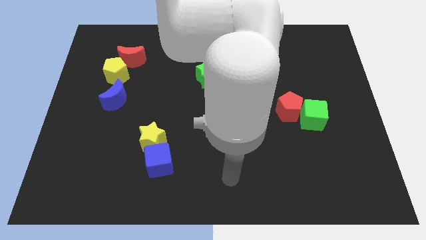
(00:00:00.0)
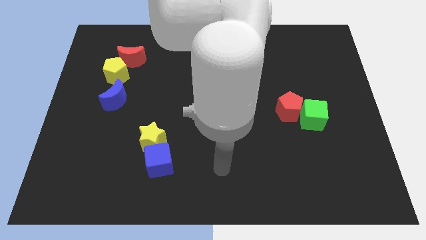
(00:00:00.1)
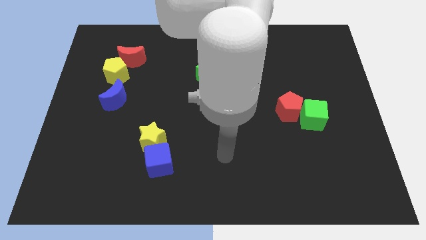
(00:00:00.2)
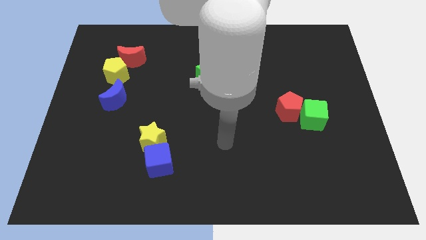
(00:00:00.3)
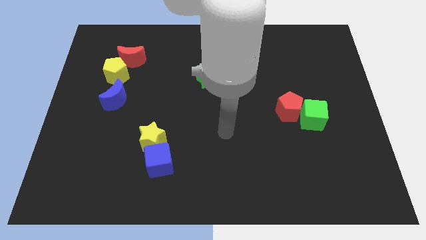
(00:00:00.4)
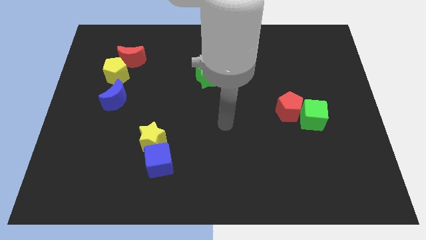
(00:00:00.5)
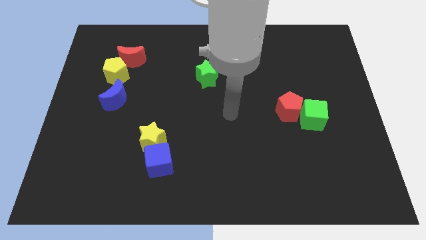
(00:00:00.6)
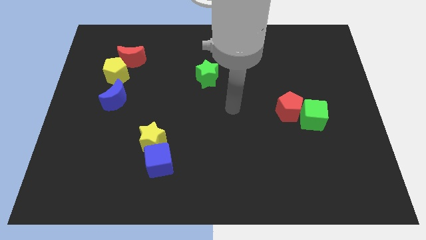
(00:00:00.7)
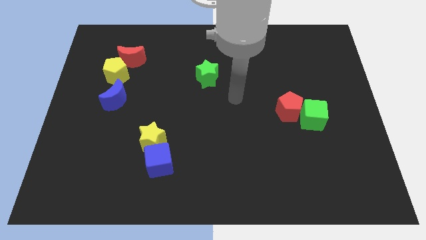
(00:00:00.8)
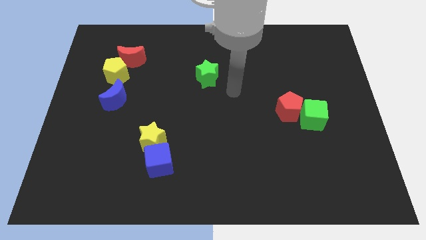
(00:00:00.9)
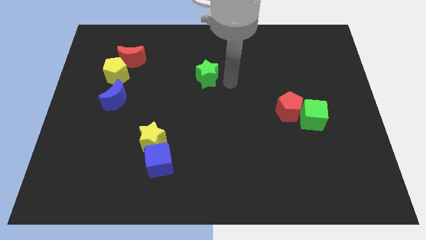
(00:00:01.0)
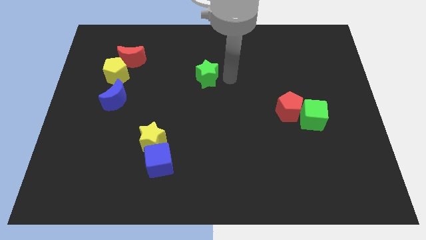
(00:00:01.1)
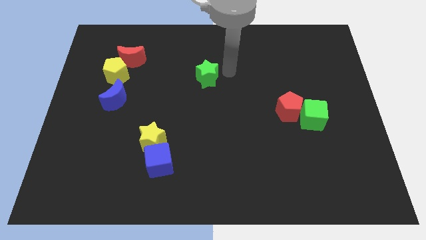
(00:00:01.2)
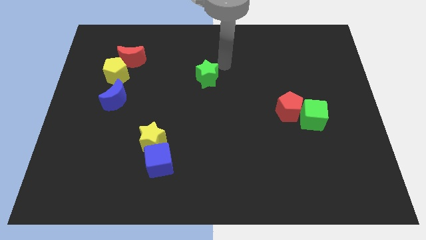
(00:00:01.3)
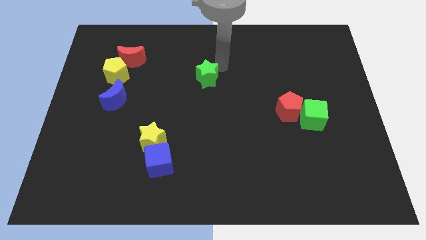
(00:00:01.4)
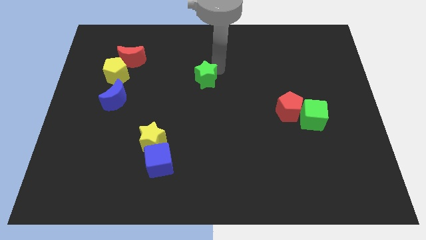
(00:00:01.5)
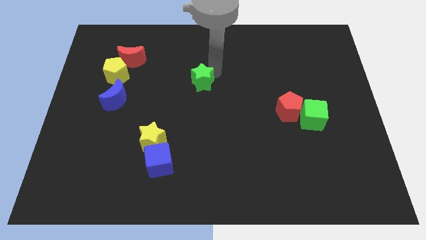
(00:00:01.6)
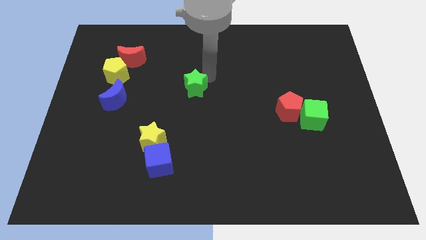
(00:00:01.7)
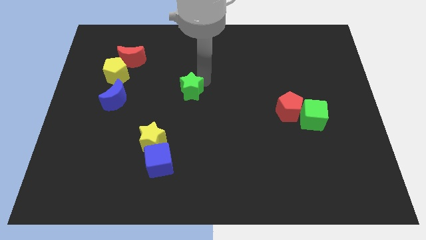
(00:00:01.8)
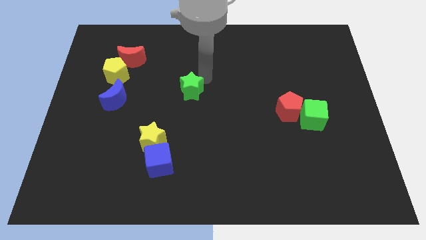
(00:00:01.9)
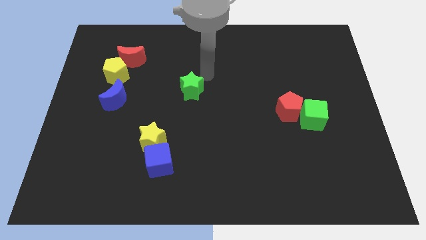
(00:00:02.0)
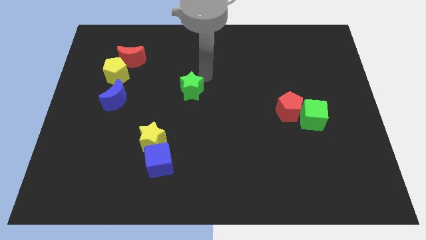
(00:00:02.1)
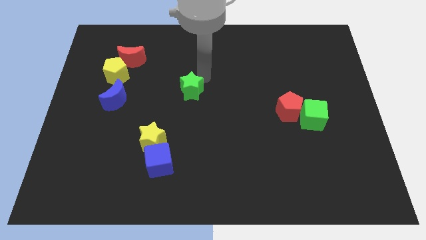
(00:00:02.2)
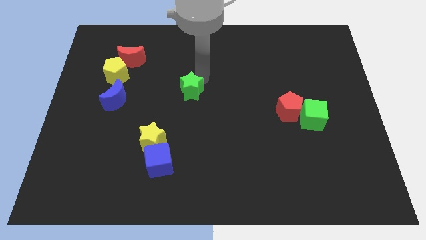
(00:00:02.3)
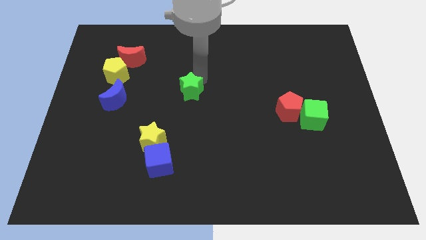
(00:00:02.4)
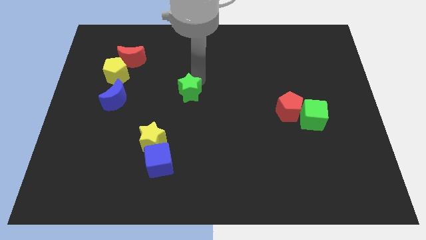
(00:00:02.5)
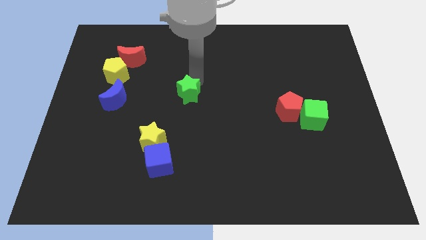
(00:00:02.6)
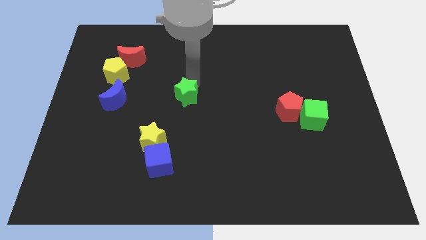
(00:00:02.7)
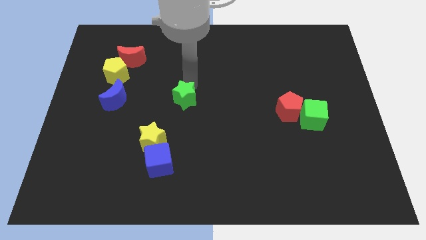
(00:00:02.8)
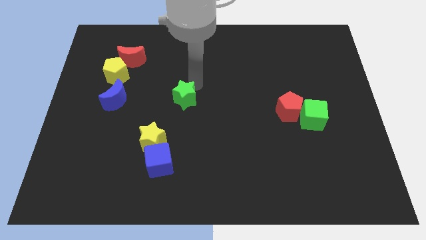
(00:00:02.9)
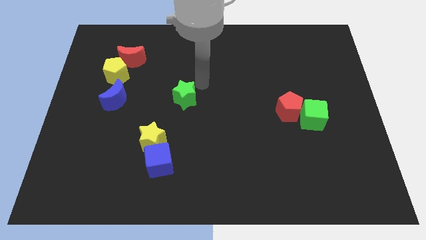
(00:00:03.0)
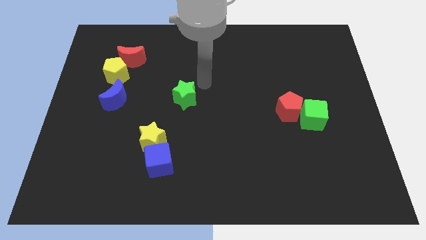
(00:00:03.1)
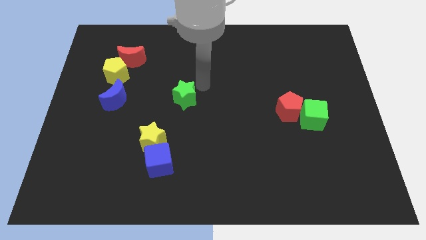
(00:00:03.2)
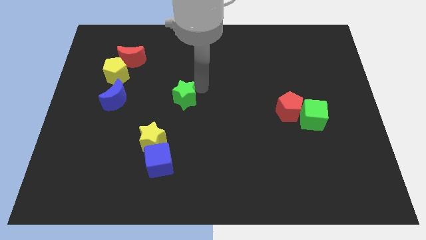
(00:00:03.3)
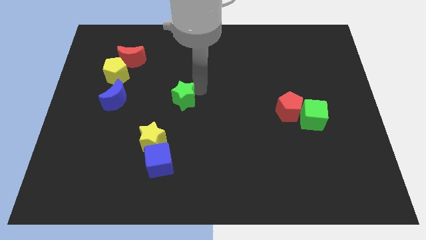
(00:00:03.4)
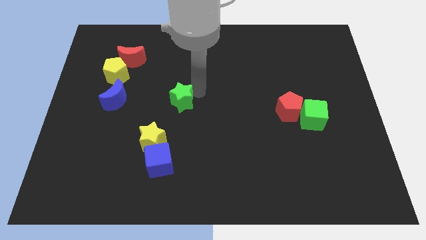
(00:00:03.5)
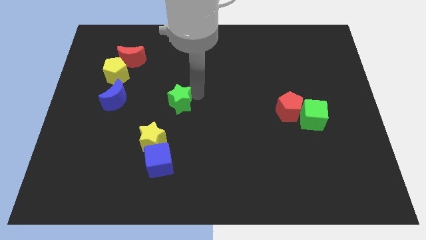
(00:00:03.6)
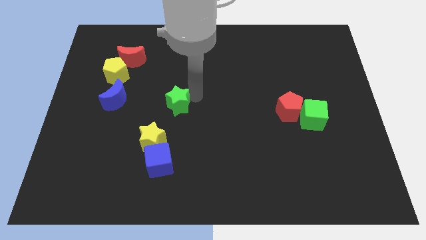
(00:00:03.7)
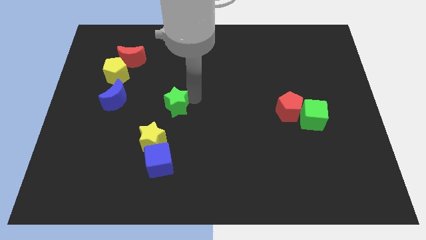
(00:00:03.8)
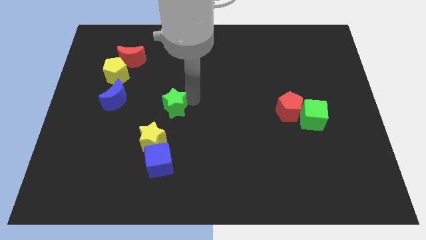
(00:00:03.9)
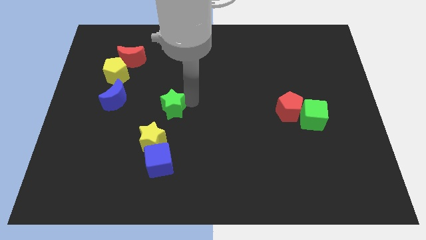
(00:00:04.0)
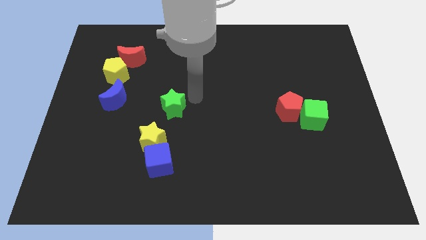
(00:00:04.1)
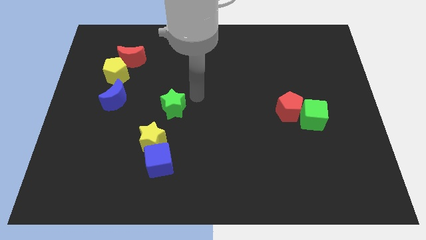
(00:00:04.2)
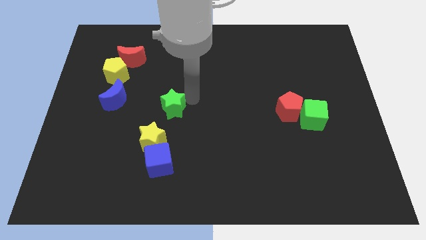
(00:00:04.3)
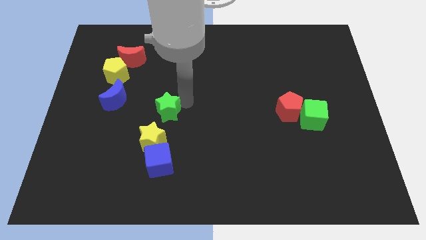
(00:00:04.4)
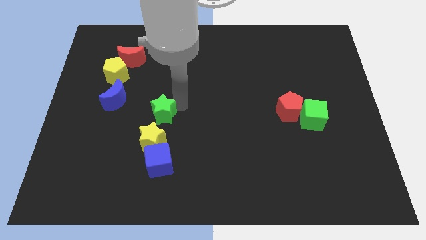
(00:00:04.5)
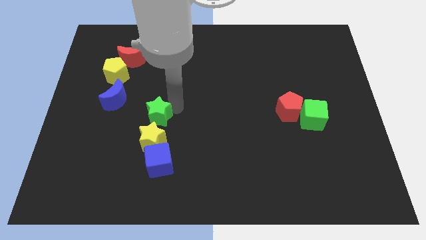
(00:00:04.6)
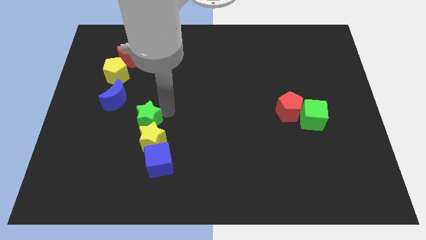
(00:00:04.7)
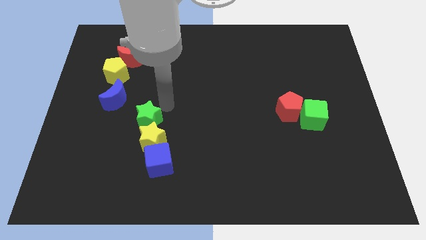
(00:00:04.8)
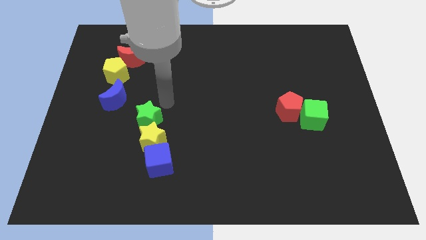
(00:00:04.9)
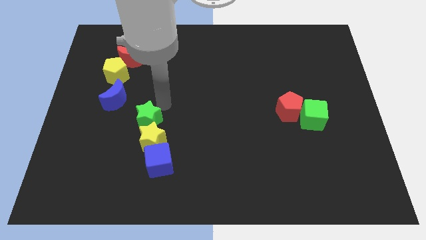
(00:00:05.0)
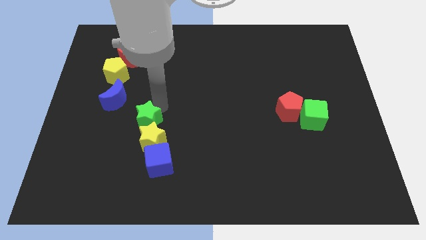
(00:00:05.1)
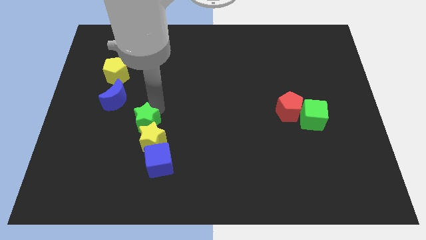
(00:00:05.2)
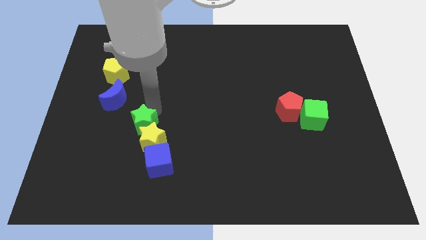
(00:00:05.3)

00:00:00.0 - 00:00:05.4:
push the green star downwards and to the left diagonally

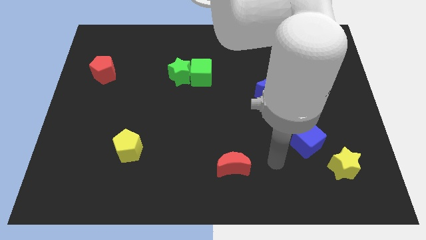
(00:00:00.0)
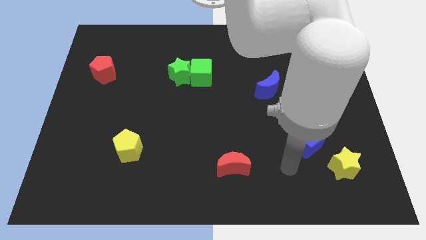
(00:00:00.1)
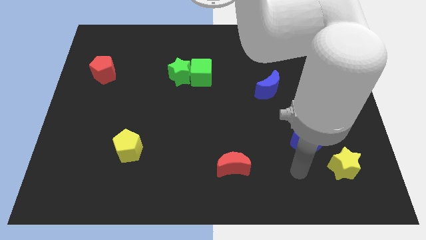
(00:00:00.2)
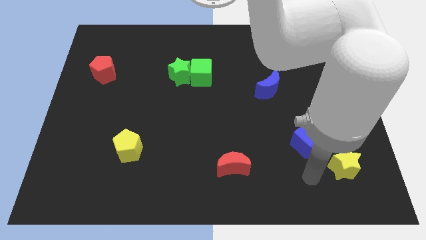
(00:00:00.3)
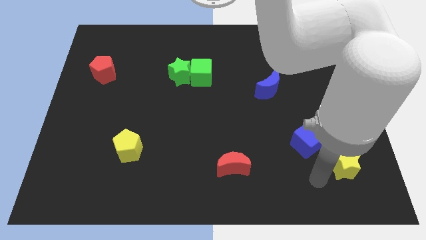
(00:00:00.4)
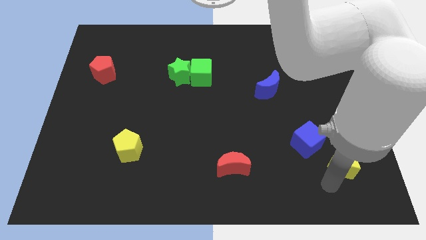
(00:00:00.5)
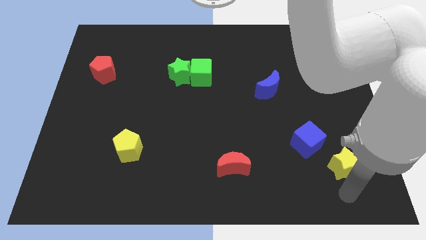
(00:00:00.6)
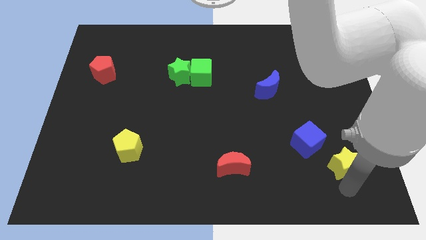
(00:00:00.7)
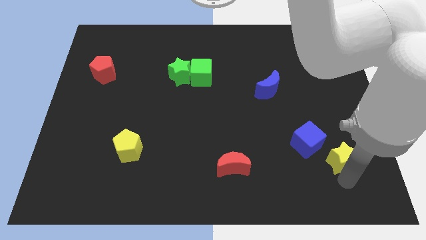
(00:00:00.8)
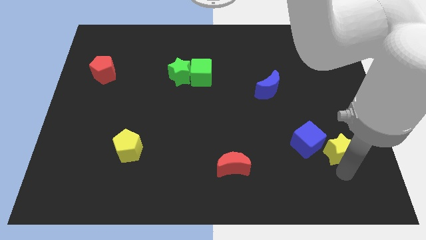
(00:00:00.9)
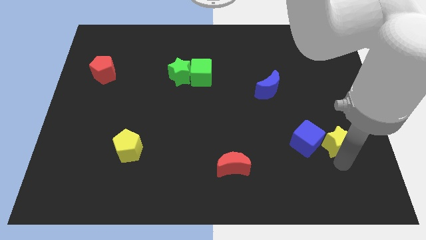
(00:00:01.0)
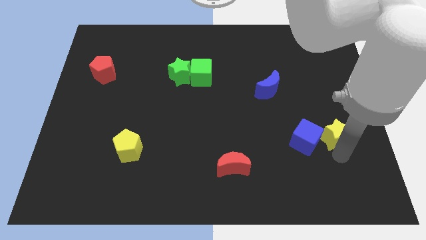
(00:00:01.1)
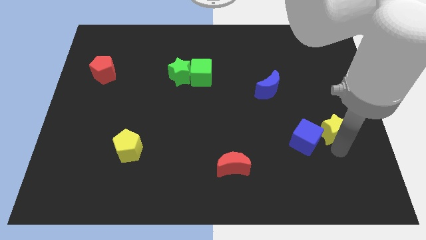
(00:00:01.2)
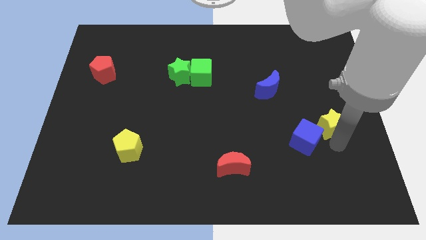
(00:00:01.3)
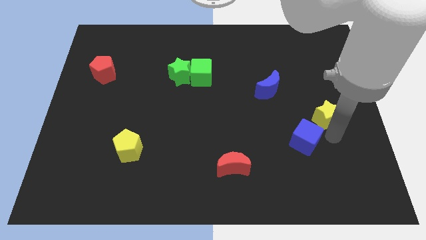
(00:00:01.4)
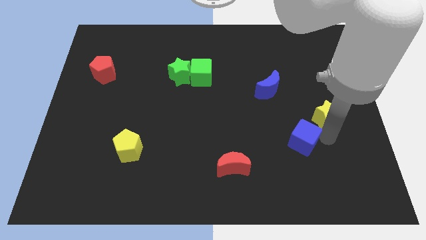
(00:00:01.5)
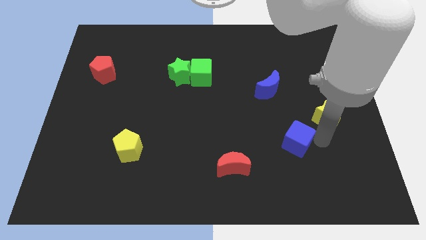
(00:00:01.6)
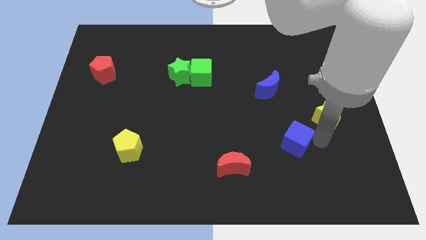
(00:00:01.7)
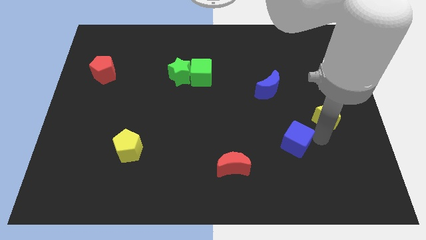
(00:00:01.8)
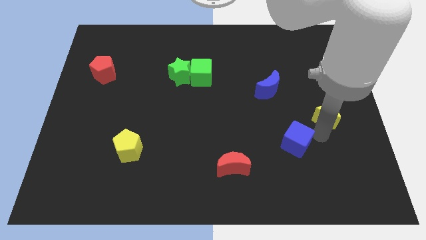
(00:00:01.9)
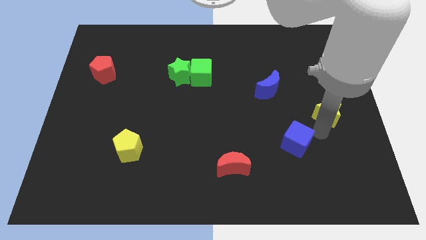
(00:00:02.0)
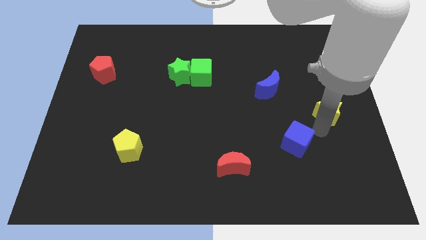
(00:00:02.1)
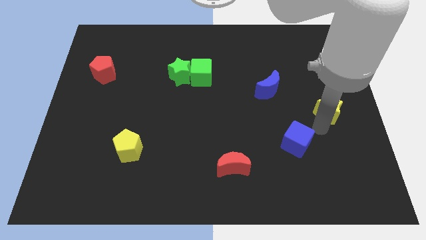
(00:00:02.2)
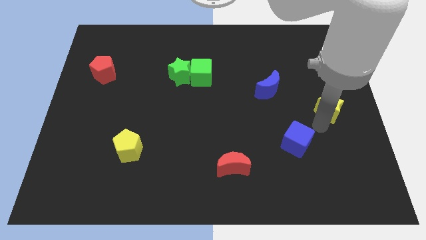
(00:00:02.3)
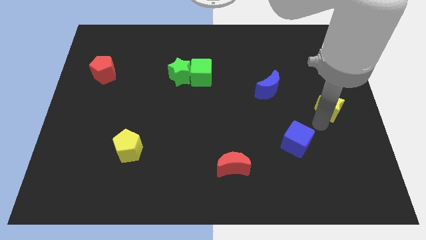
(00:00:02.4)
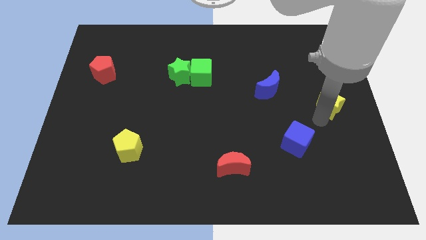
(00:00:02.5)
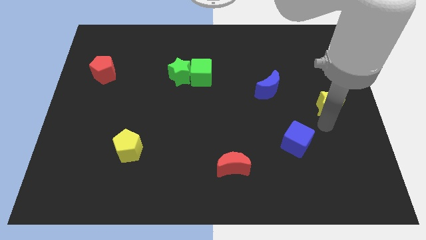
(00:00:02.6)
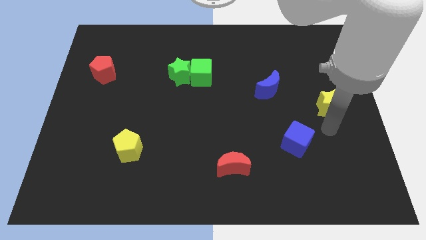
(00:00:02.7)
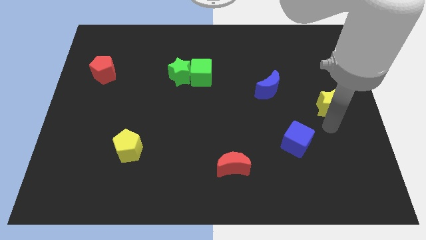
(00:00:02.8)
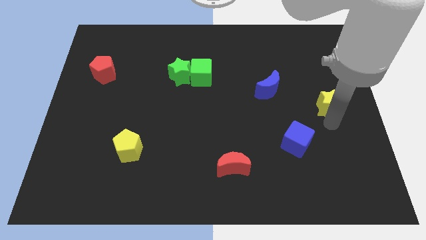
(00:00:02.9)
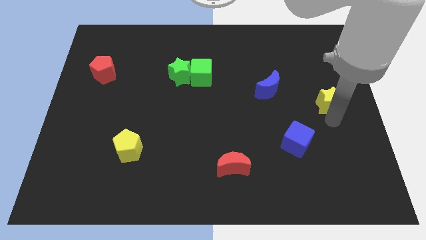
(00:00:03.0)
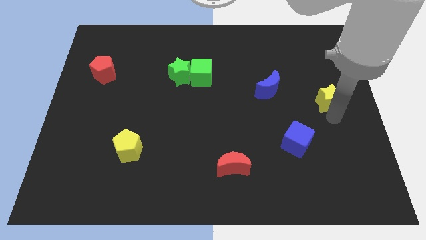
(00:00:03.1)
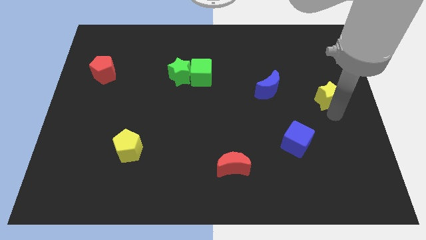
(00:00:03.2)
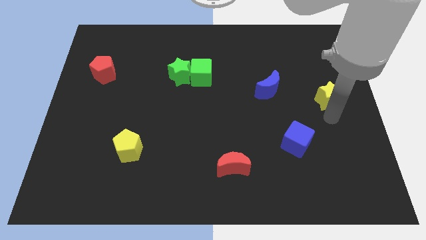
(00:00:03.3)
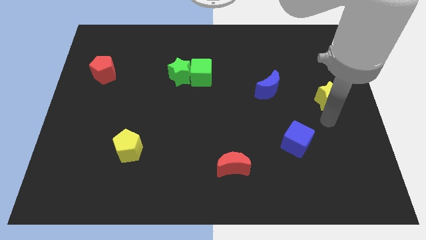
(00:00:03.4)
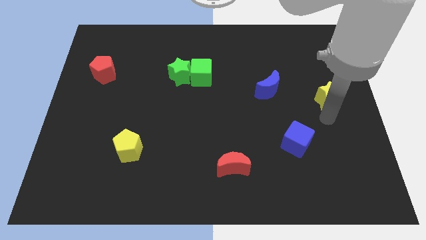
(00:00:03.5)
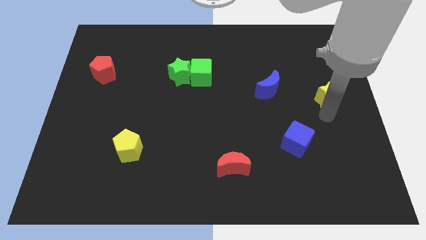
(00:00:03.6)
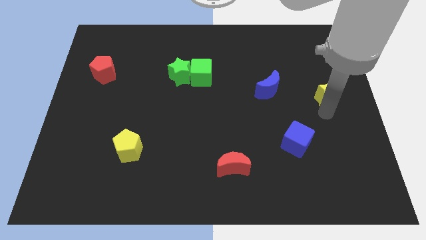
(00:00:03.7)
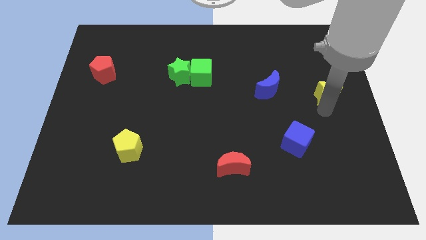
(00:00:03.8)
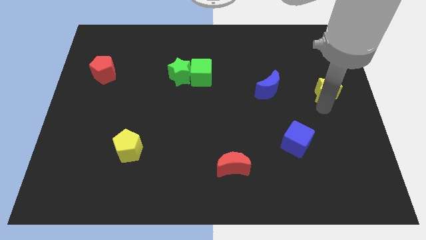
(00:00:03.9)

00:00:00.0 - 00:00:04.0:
push the yellow star up
